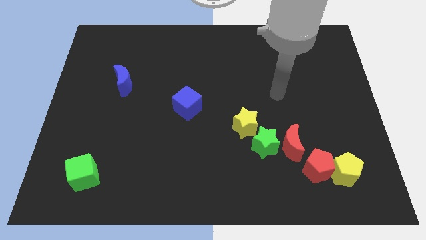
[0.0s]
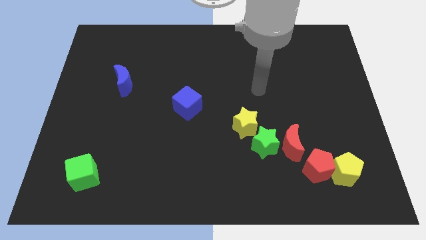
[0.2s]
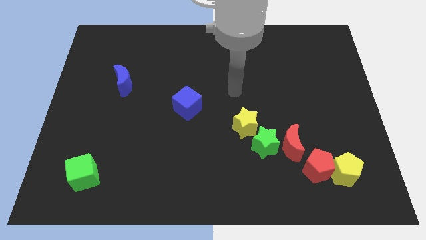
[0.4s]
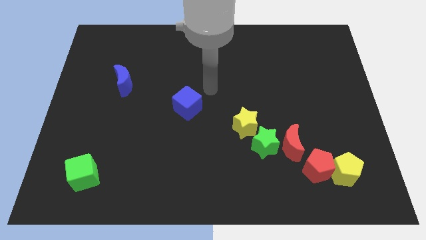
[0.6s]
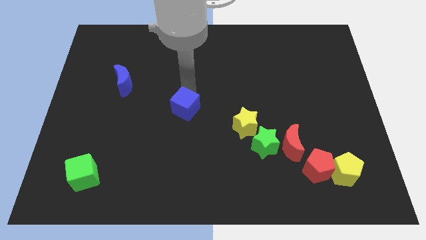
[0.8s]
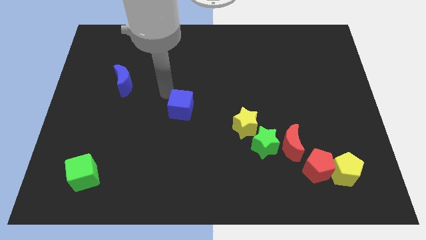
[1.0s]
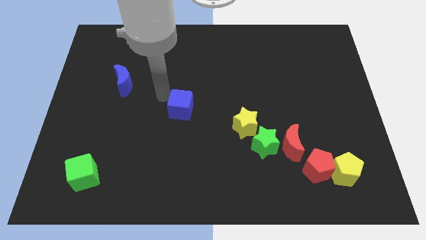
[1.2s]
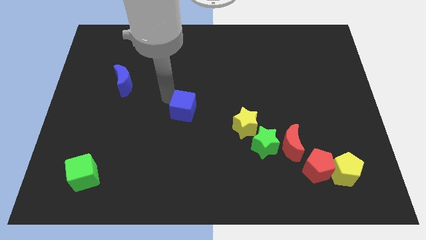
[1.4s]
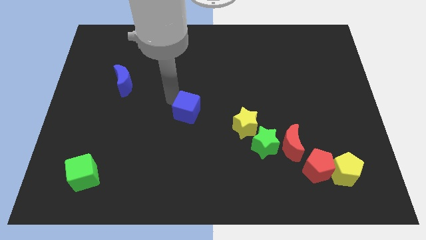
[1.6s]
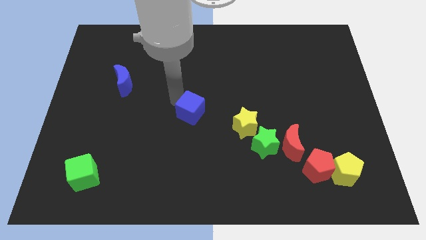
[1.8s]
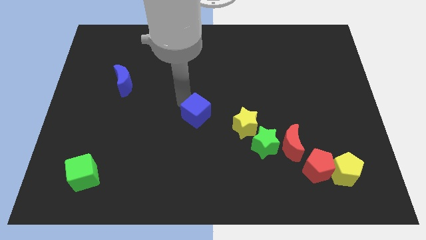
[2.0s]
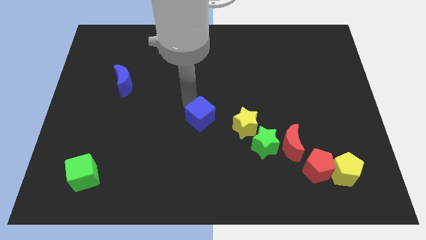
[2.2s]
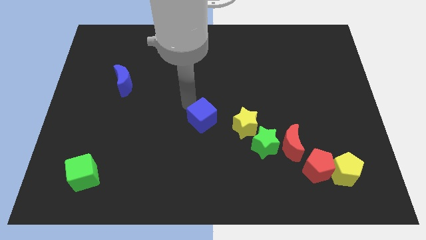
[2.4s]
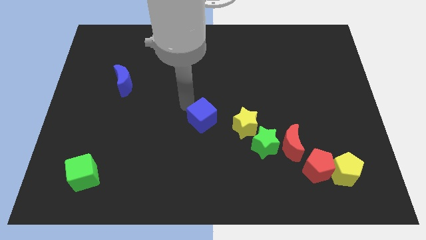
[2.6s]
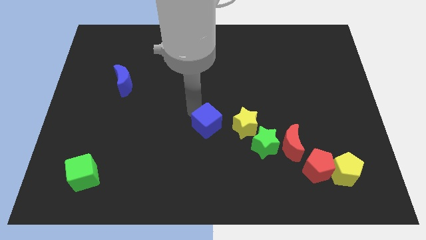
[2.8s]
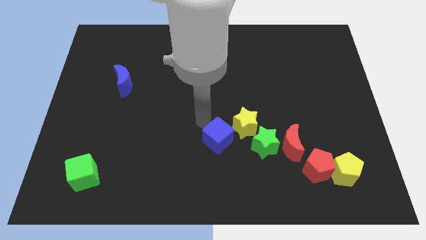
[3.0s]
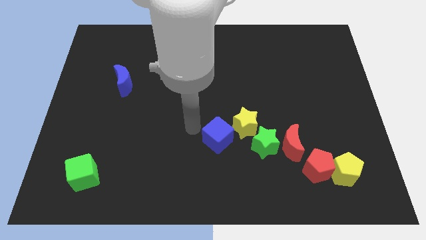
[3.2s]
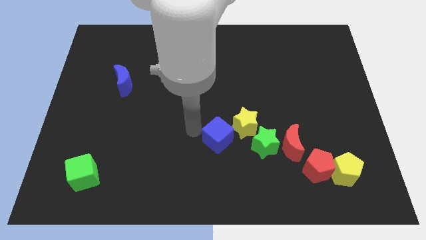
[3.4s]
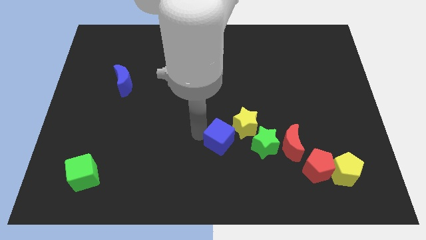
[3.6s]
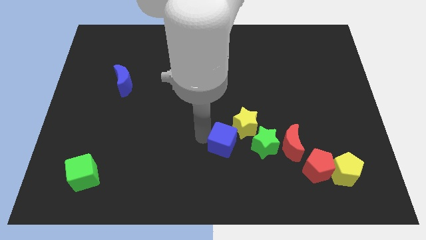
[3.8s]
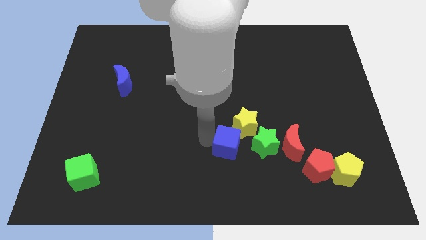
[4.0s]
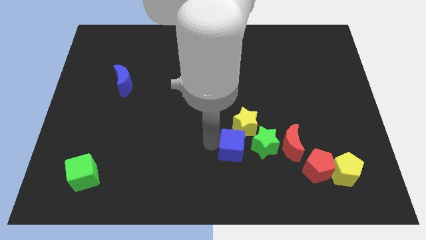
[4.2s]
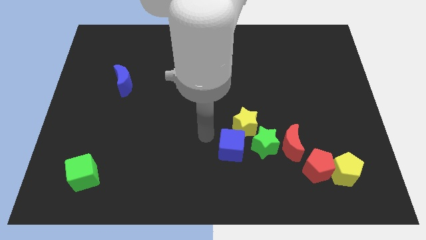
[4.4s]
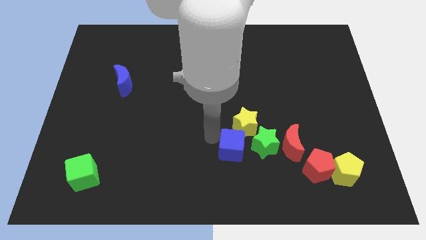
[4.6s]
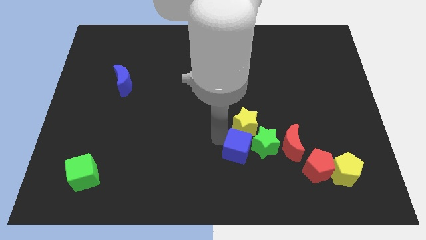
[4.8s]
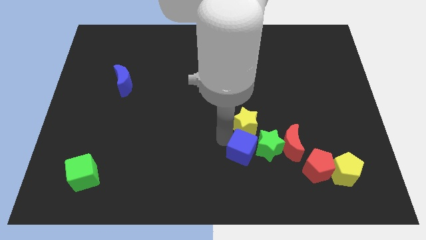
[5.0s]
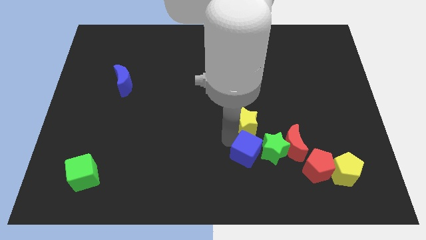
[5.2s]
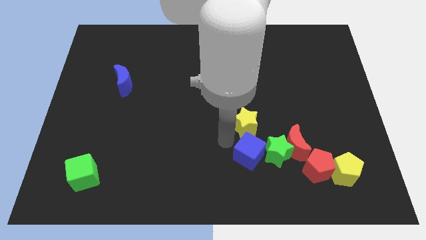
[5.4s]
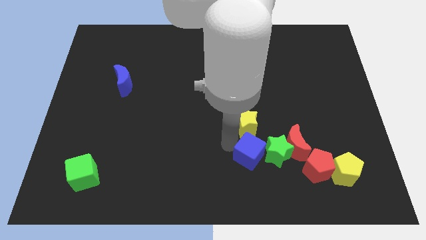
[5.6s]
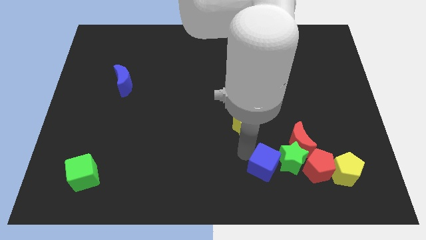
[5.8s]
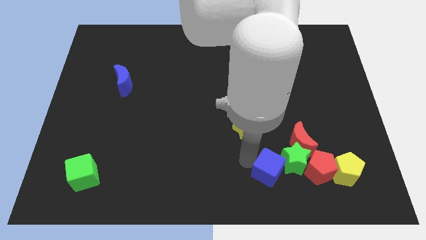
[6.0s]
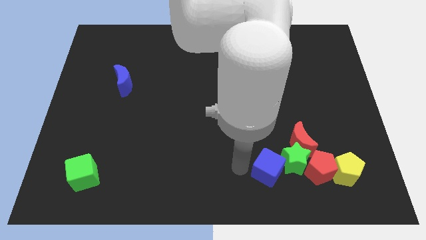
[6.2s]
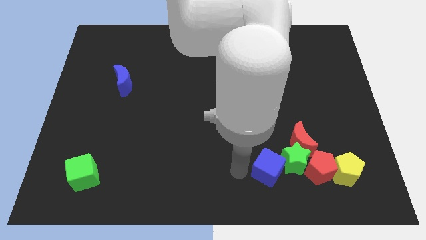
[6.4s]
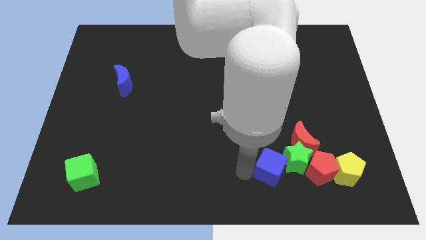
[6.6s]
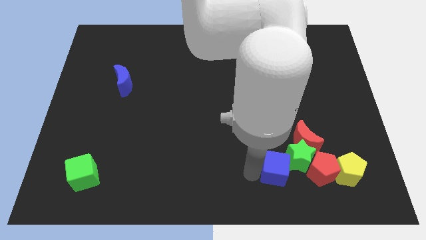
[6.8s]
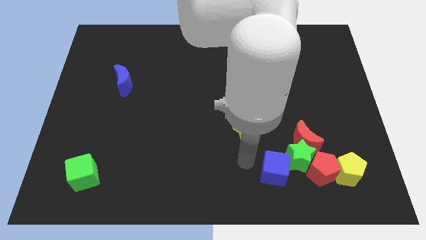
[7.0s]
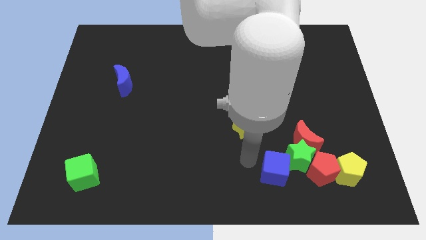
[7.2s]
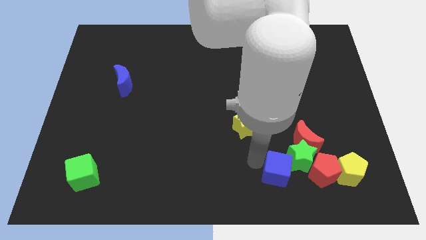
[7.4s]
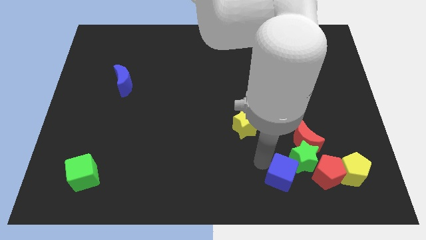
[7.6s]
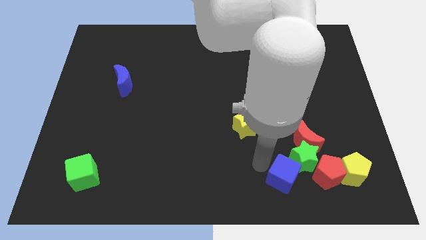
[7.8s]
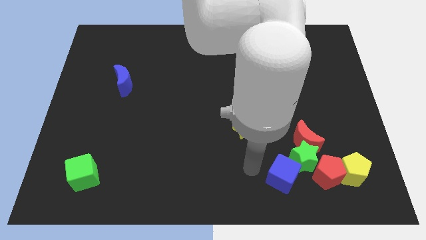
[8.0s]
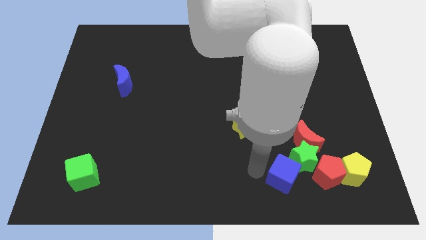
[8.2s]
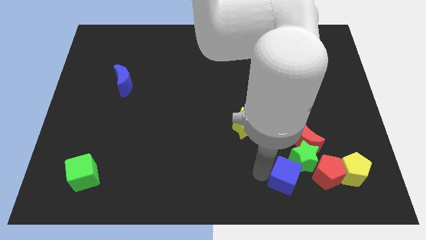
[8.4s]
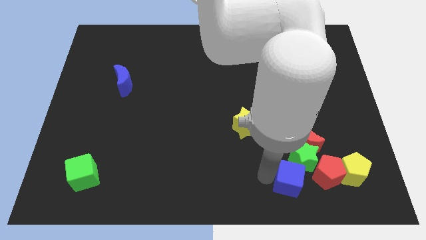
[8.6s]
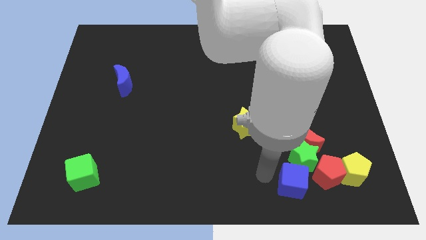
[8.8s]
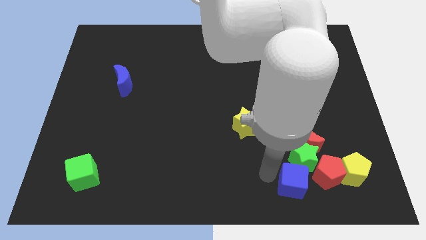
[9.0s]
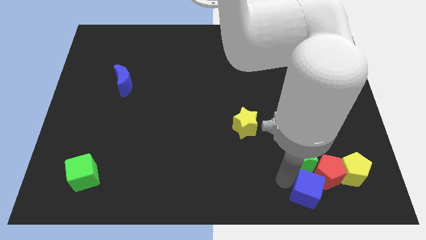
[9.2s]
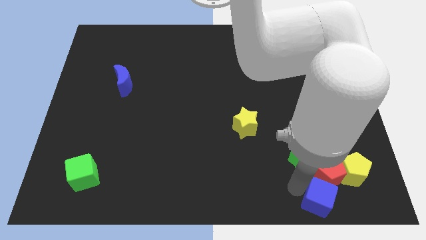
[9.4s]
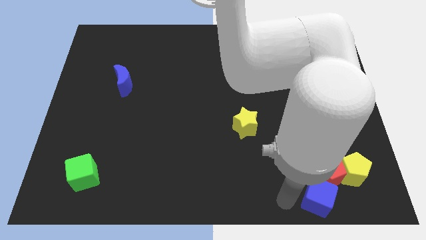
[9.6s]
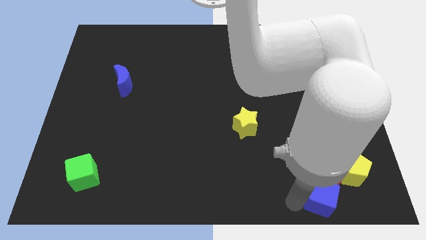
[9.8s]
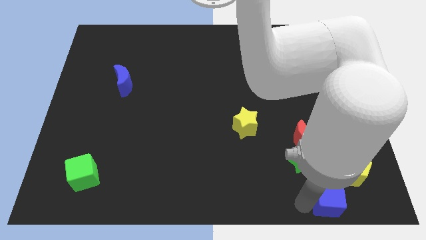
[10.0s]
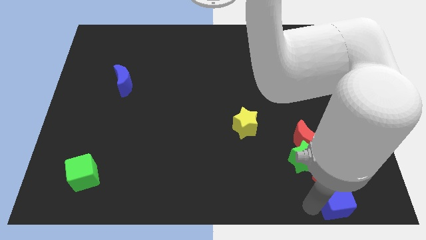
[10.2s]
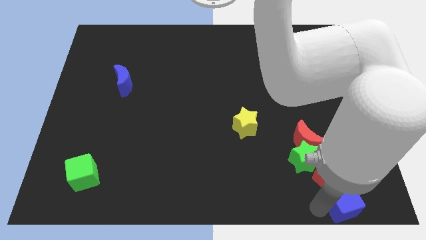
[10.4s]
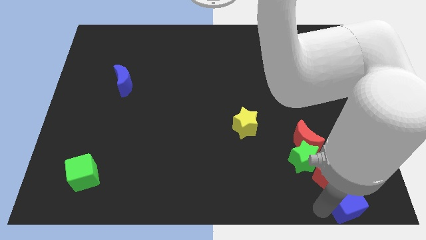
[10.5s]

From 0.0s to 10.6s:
put the blue cube to the lower right corner

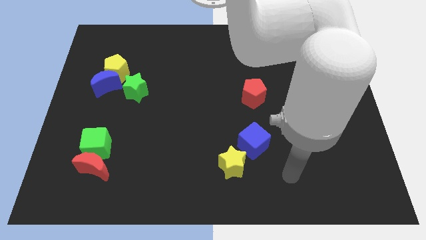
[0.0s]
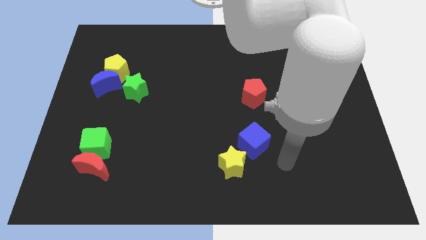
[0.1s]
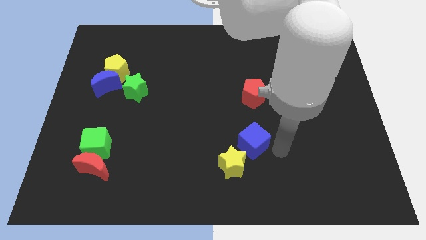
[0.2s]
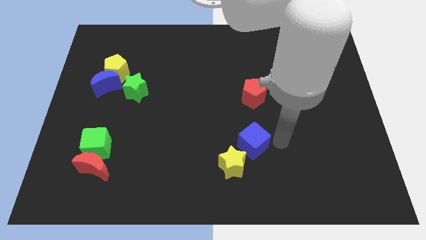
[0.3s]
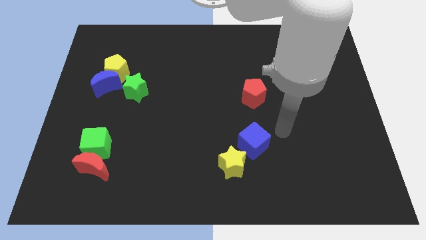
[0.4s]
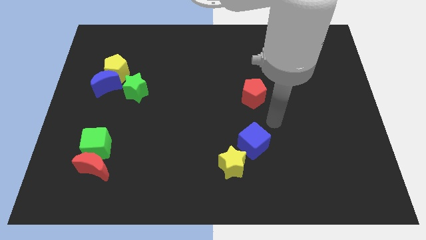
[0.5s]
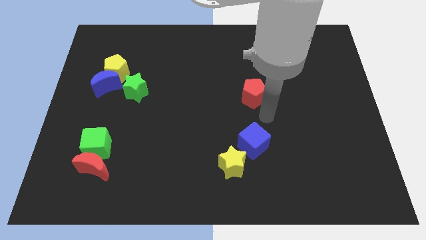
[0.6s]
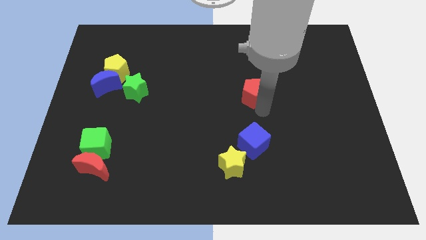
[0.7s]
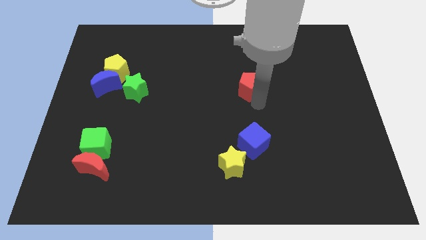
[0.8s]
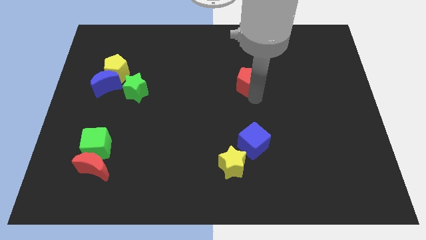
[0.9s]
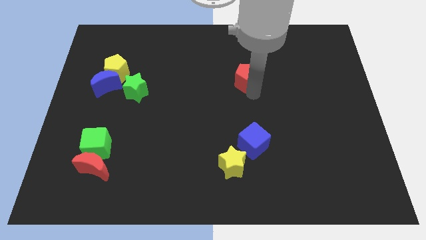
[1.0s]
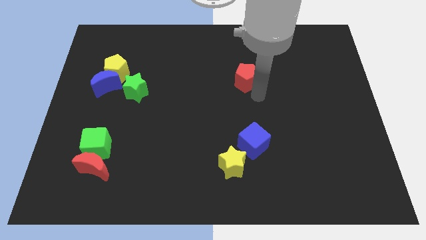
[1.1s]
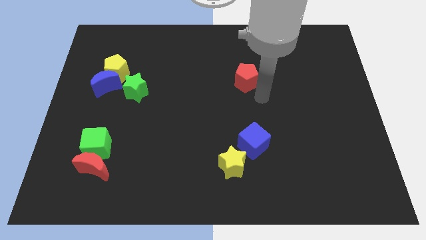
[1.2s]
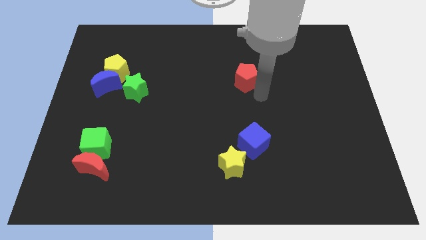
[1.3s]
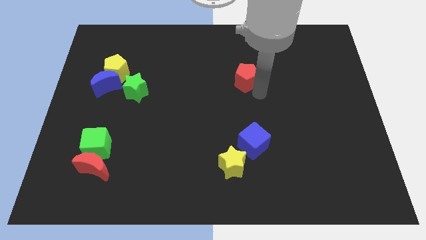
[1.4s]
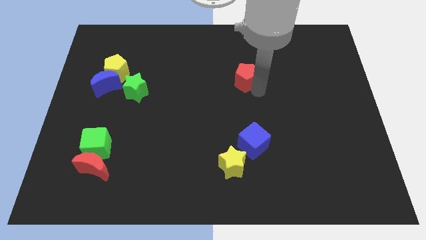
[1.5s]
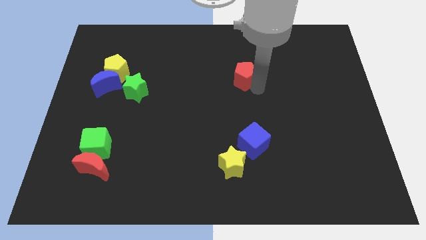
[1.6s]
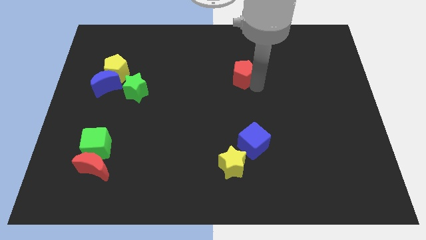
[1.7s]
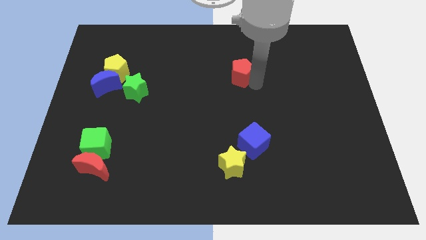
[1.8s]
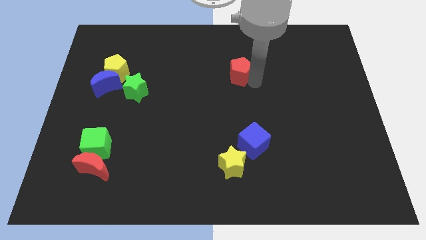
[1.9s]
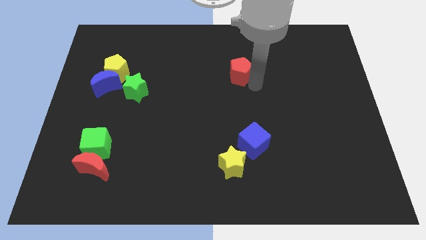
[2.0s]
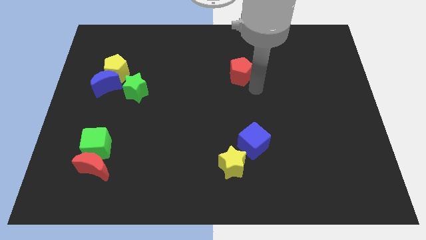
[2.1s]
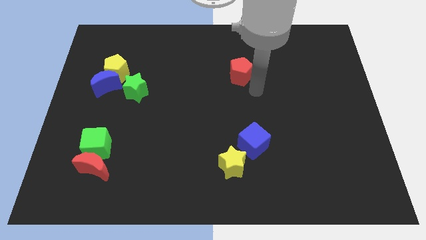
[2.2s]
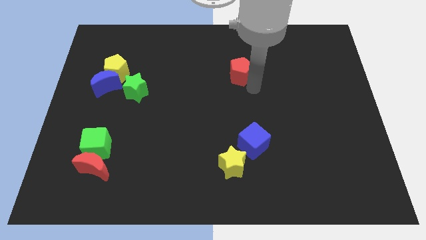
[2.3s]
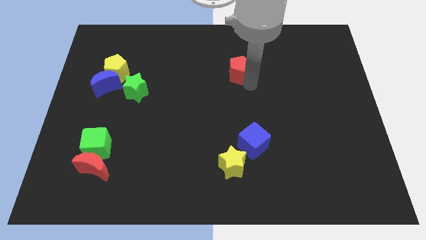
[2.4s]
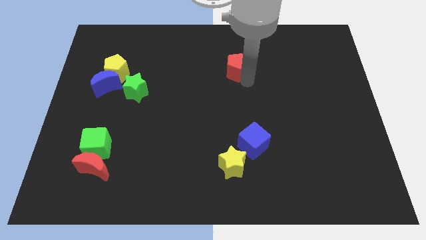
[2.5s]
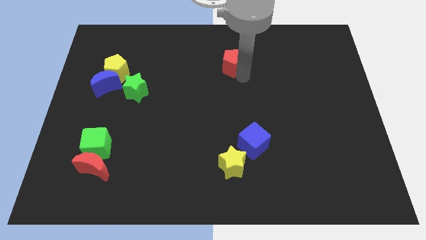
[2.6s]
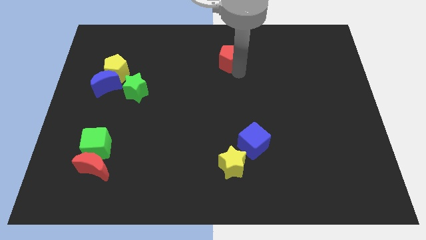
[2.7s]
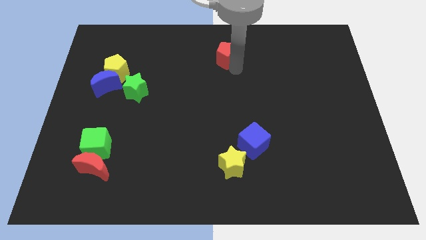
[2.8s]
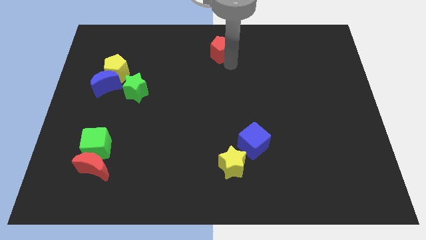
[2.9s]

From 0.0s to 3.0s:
move the red pentagon to the top side
